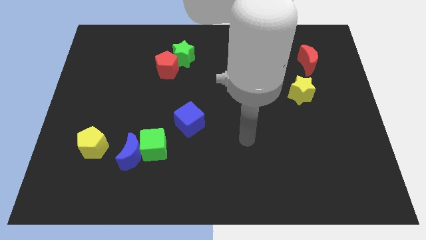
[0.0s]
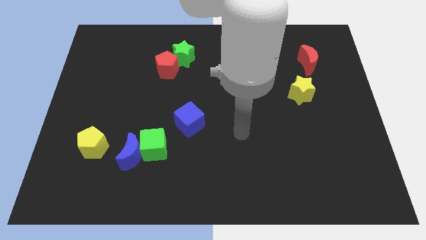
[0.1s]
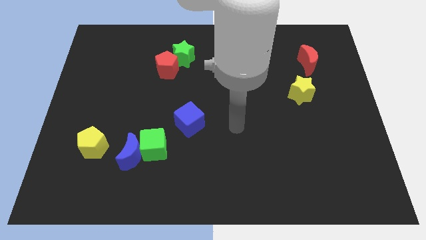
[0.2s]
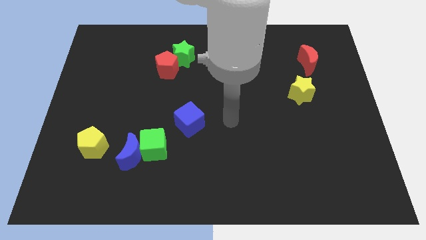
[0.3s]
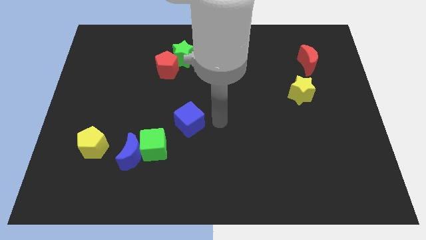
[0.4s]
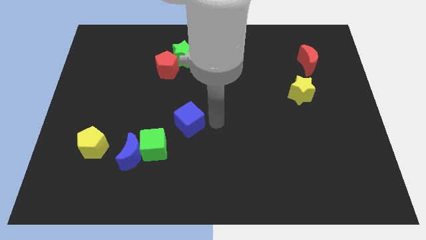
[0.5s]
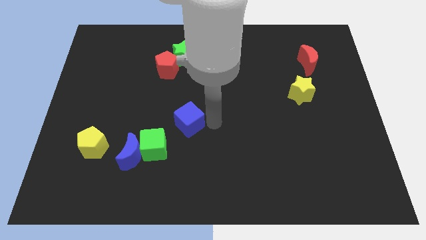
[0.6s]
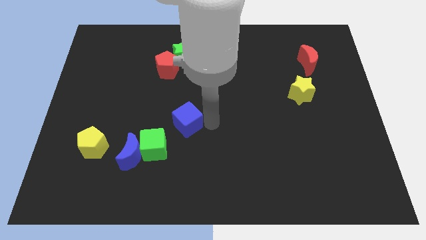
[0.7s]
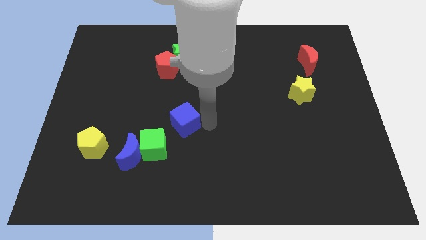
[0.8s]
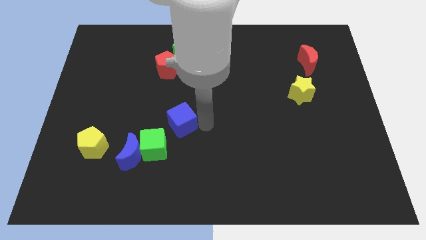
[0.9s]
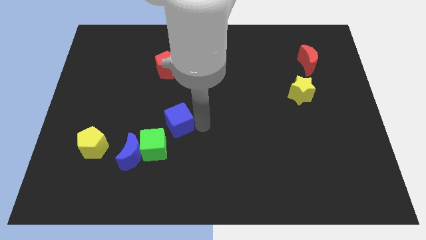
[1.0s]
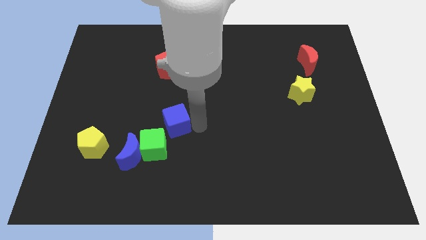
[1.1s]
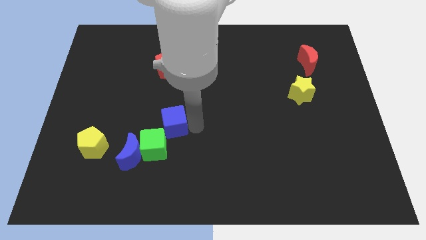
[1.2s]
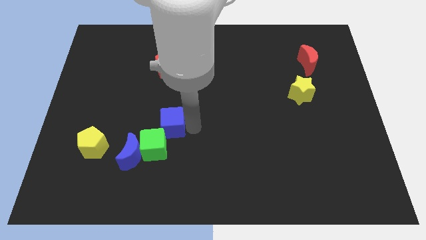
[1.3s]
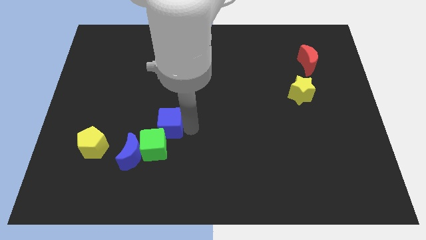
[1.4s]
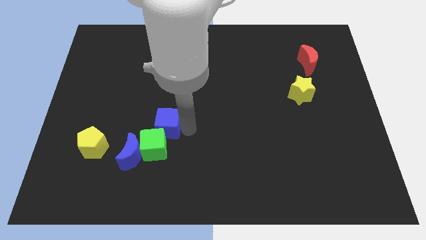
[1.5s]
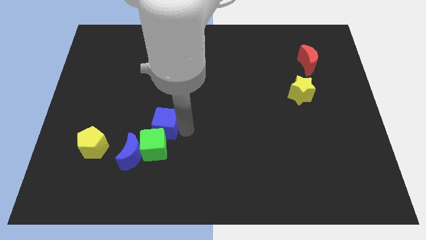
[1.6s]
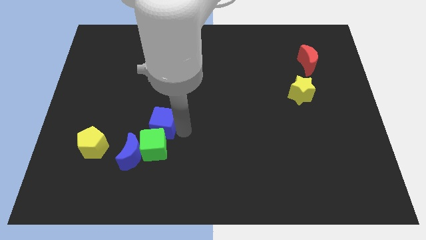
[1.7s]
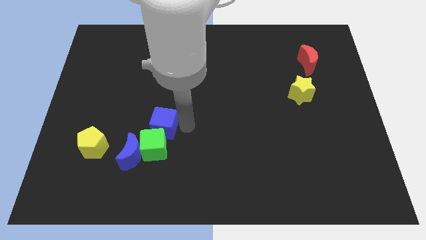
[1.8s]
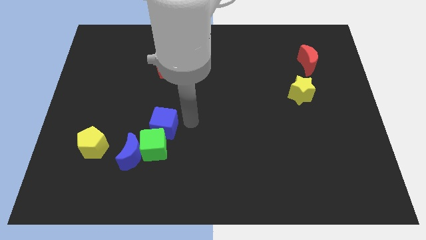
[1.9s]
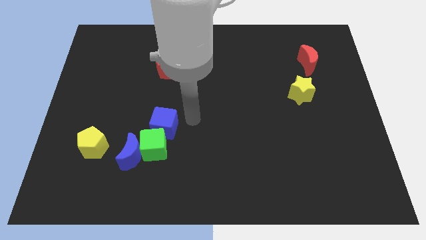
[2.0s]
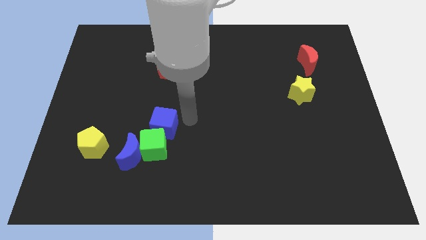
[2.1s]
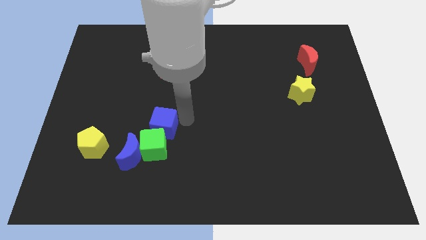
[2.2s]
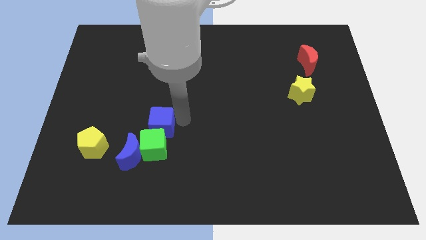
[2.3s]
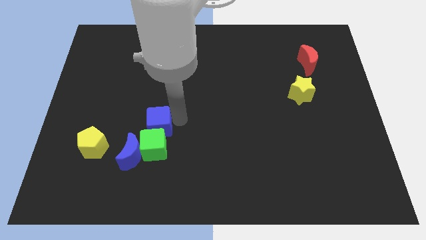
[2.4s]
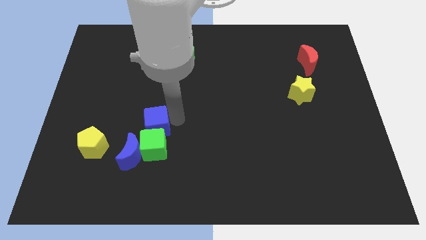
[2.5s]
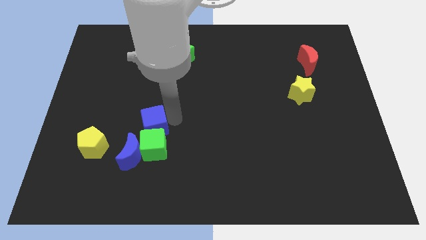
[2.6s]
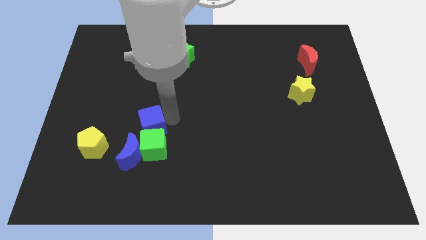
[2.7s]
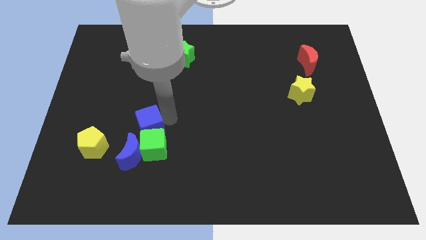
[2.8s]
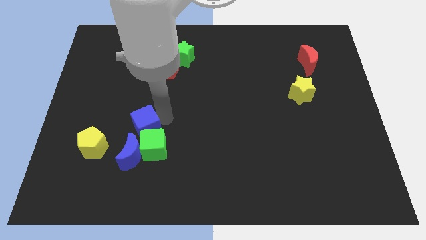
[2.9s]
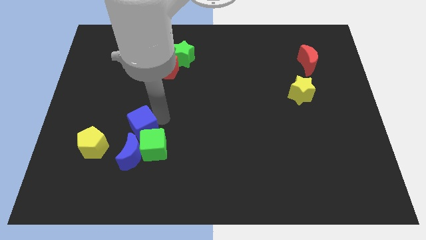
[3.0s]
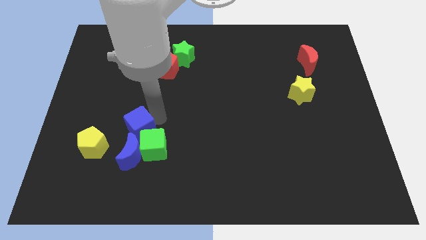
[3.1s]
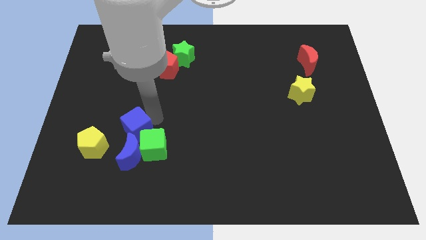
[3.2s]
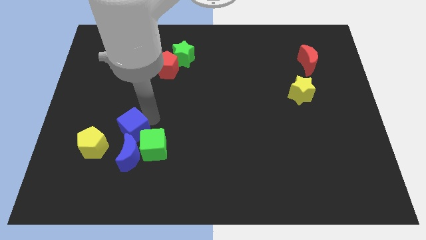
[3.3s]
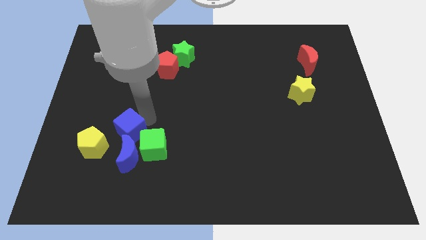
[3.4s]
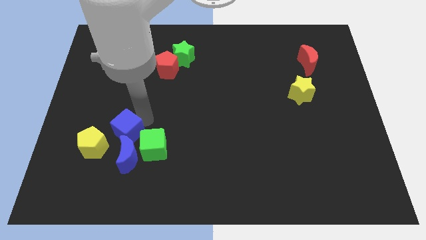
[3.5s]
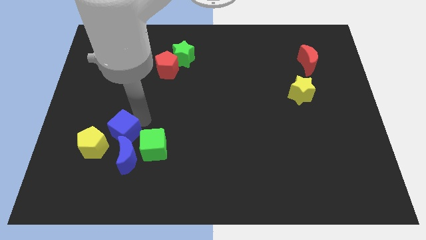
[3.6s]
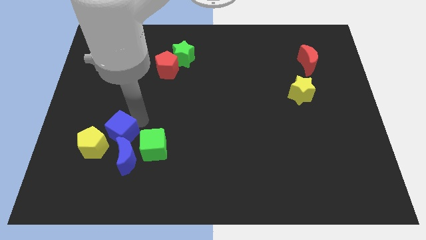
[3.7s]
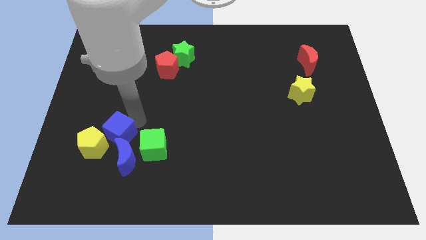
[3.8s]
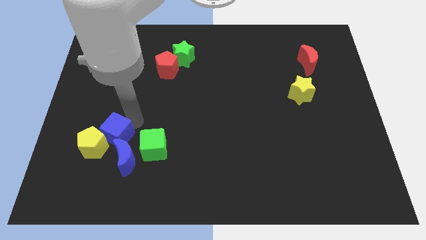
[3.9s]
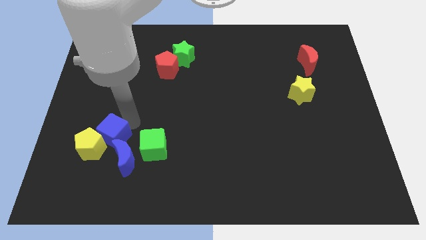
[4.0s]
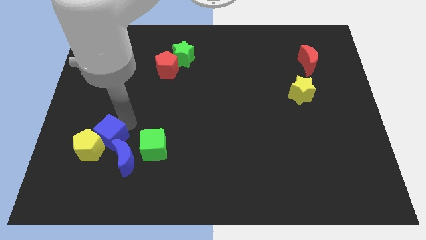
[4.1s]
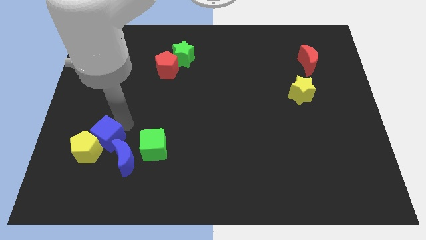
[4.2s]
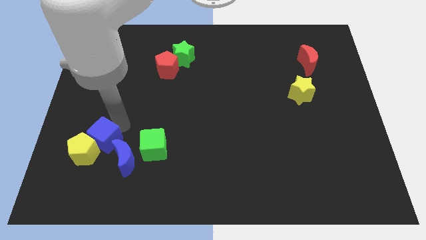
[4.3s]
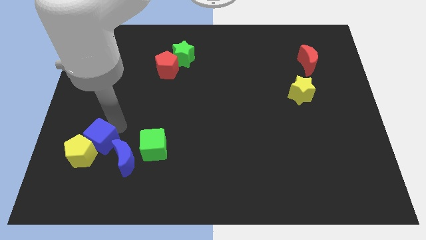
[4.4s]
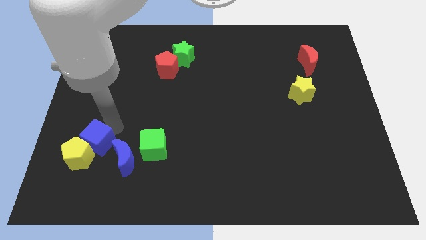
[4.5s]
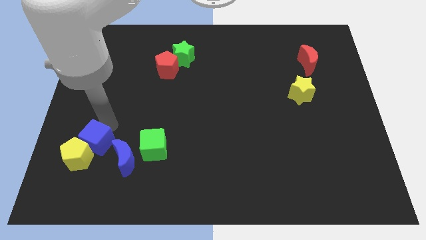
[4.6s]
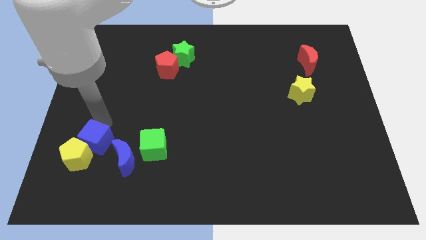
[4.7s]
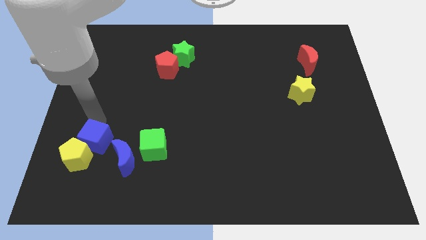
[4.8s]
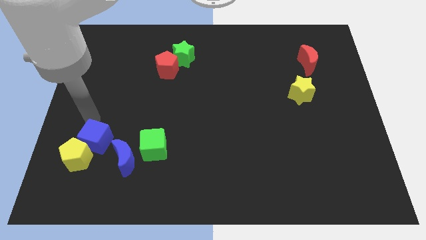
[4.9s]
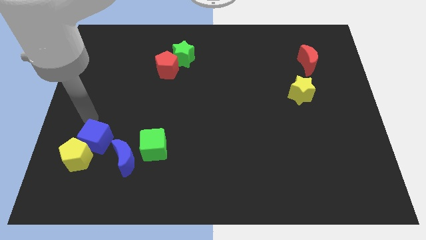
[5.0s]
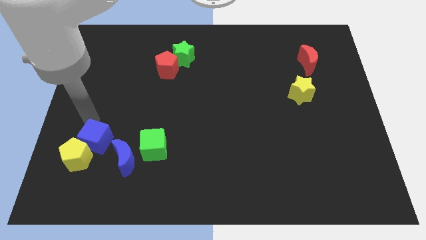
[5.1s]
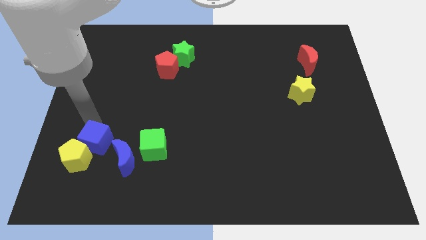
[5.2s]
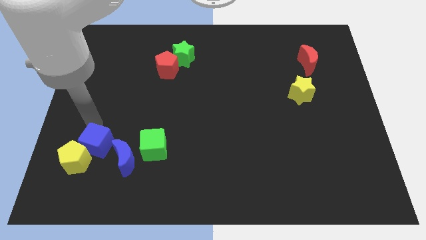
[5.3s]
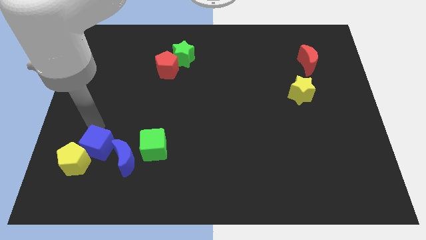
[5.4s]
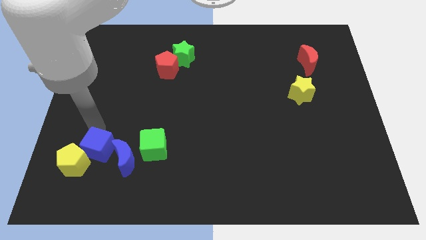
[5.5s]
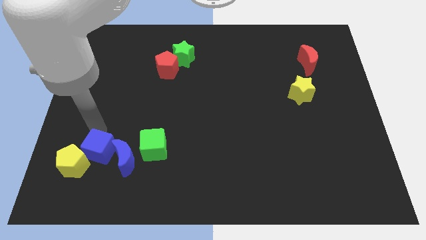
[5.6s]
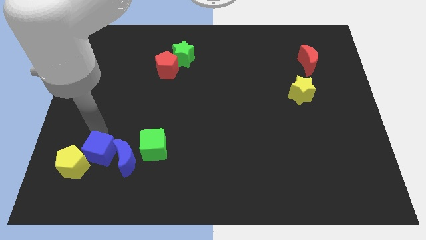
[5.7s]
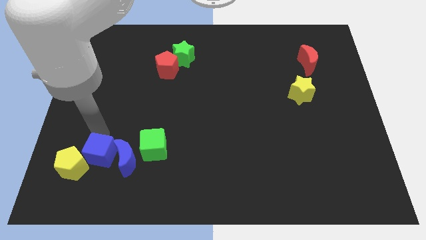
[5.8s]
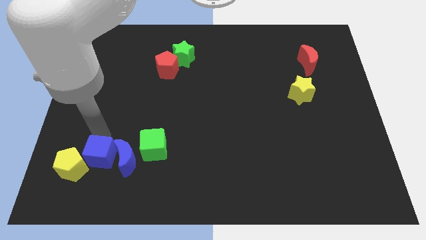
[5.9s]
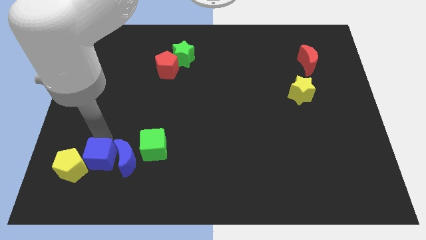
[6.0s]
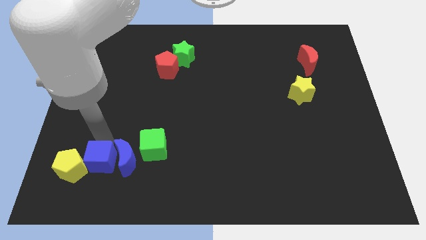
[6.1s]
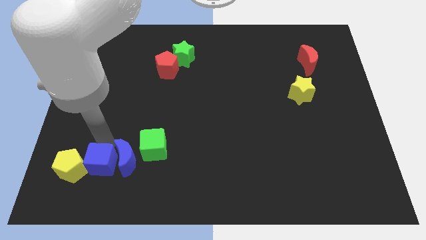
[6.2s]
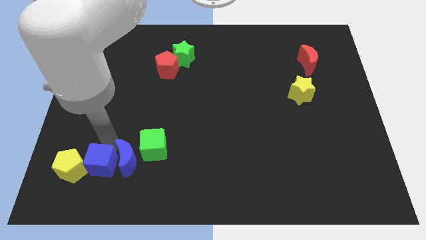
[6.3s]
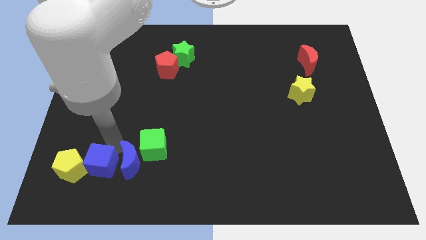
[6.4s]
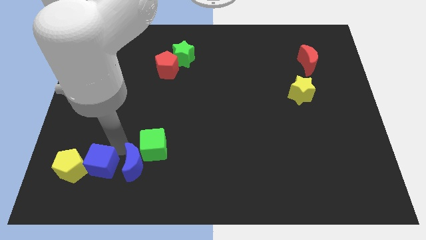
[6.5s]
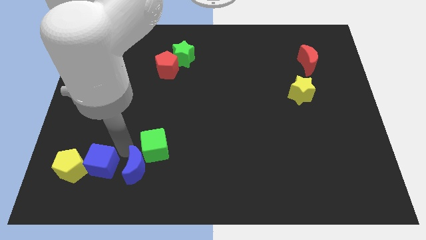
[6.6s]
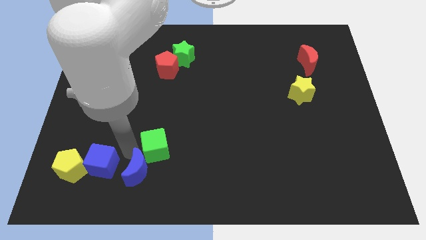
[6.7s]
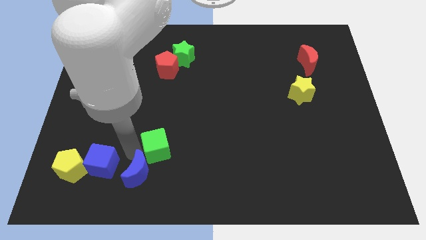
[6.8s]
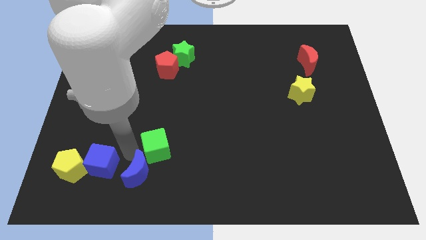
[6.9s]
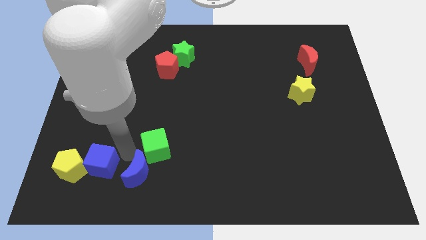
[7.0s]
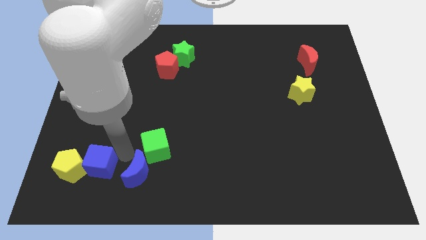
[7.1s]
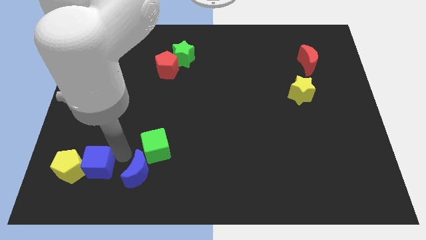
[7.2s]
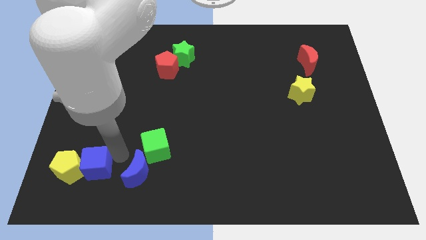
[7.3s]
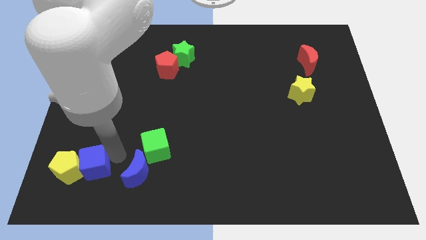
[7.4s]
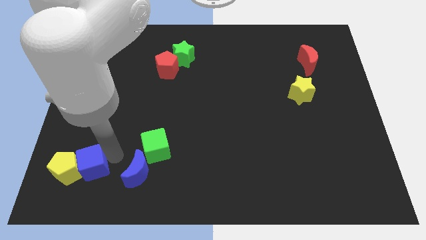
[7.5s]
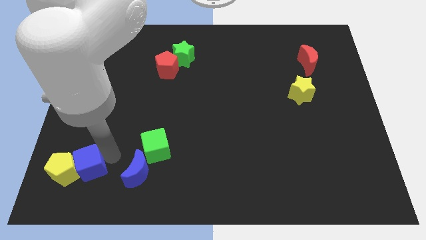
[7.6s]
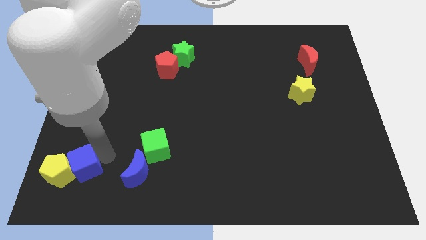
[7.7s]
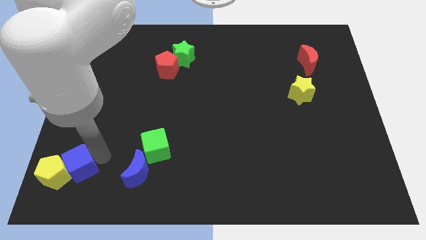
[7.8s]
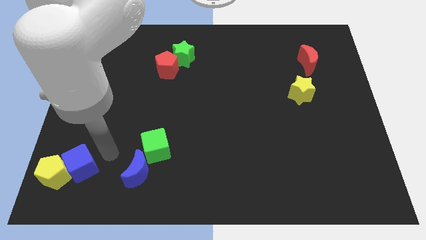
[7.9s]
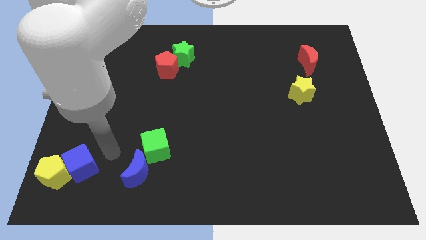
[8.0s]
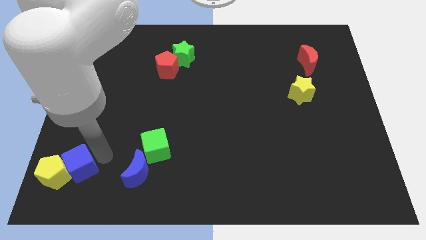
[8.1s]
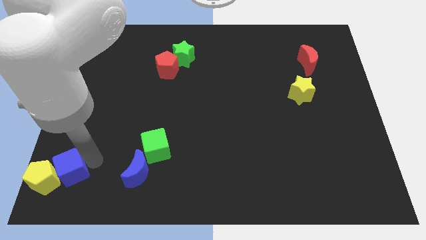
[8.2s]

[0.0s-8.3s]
put the blue cube to the bottom left
